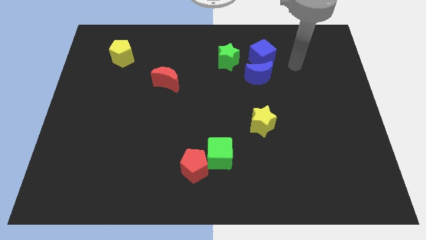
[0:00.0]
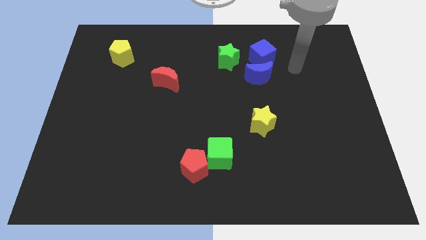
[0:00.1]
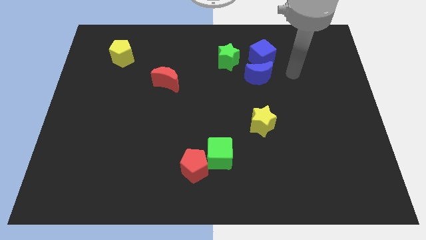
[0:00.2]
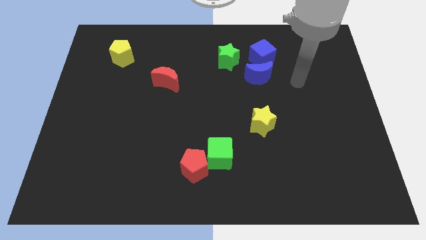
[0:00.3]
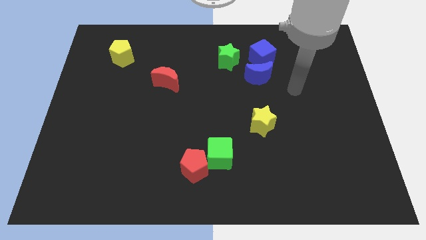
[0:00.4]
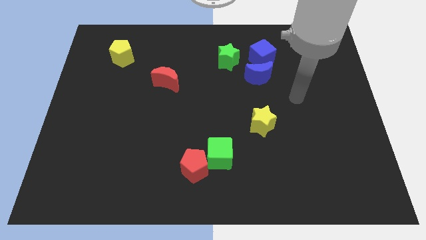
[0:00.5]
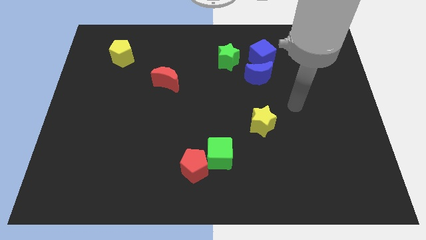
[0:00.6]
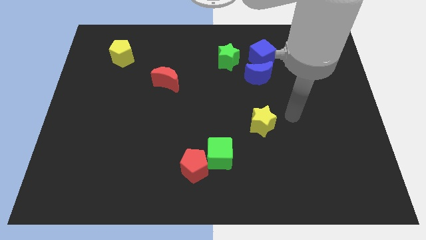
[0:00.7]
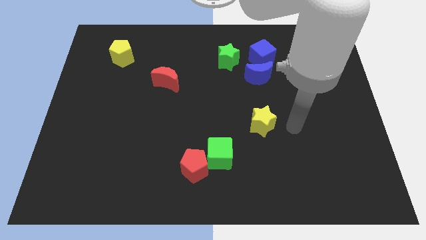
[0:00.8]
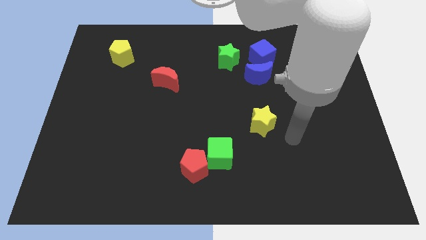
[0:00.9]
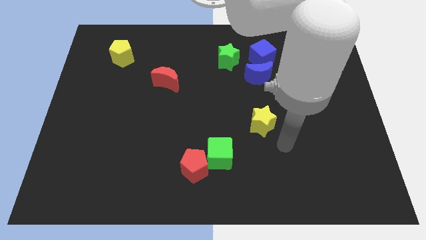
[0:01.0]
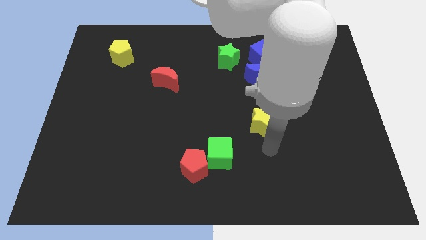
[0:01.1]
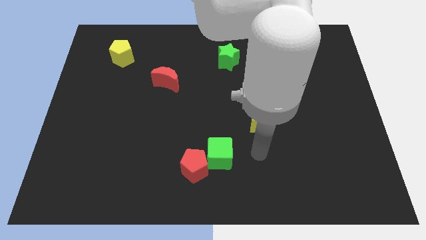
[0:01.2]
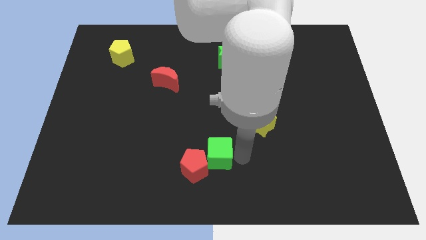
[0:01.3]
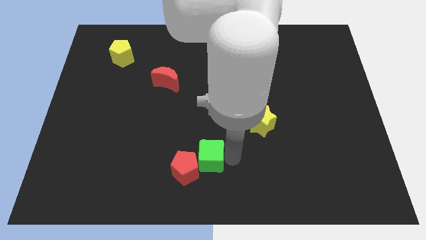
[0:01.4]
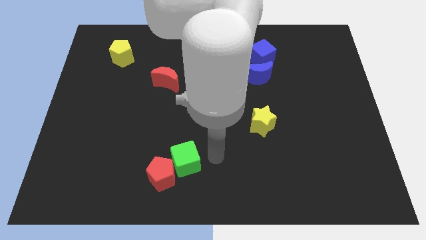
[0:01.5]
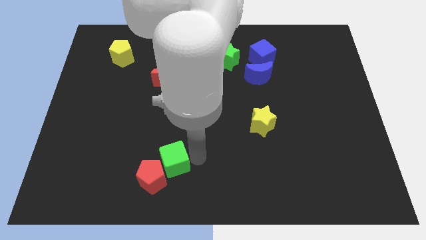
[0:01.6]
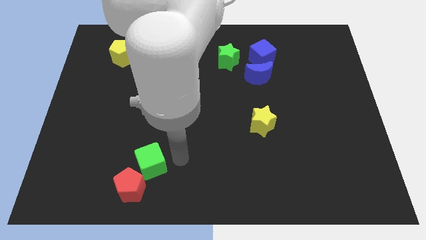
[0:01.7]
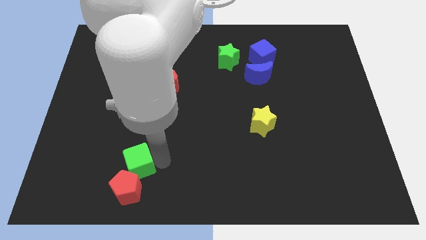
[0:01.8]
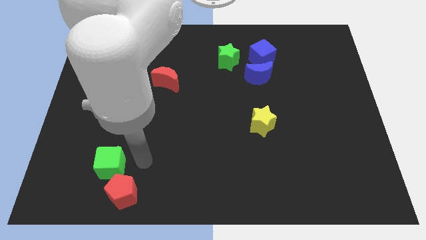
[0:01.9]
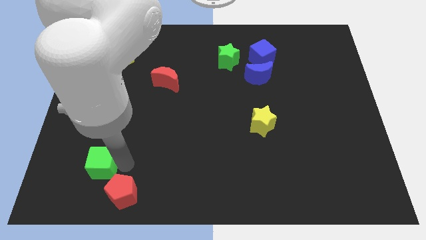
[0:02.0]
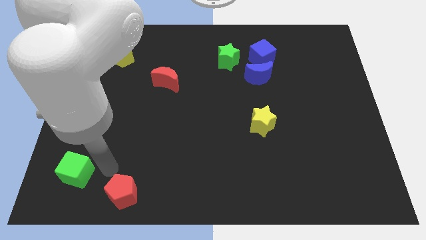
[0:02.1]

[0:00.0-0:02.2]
pull the red pentagon apart from the green cube

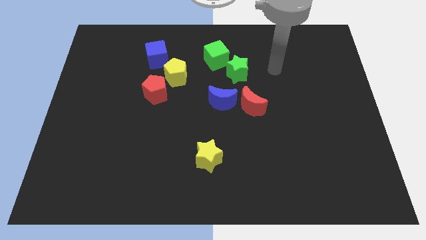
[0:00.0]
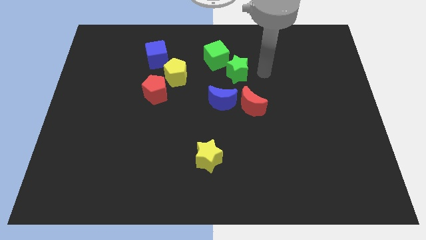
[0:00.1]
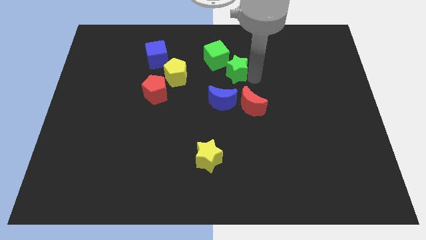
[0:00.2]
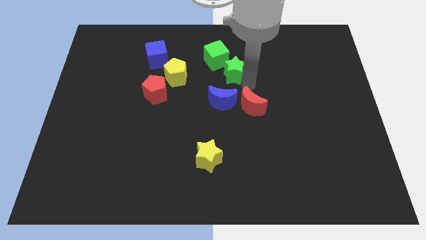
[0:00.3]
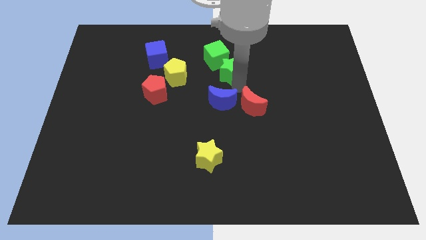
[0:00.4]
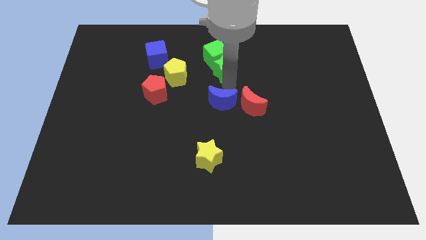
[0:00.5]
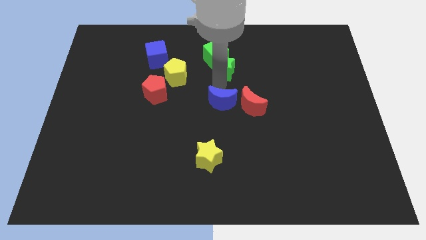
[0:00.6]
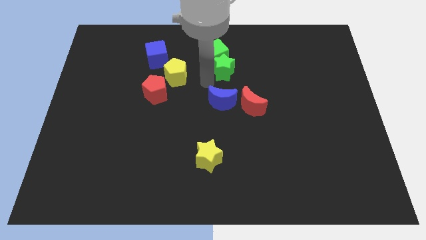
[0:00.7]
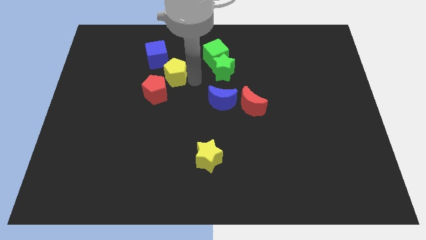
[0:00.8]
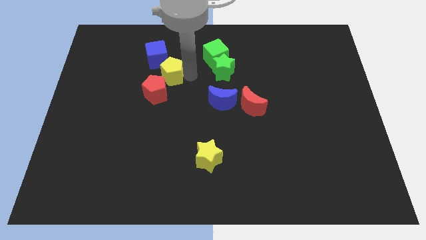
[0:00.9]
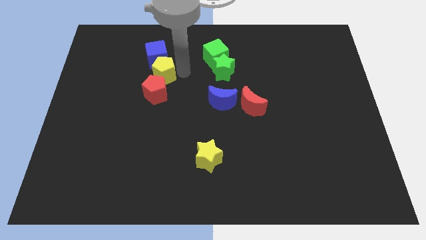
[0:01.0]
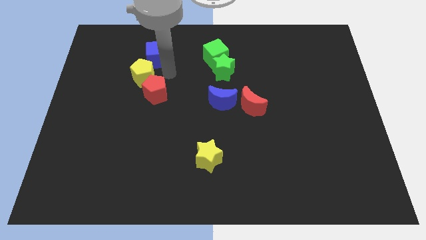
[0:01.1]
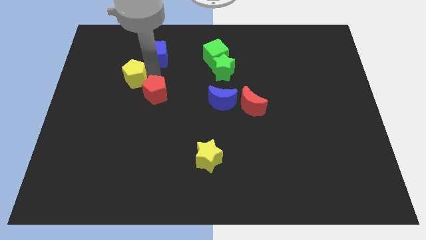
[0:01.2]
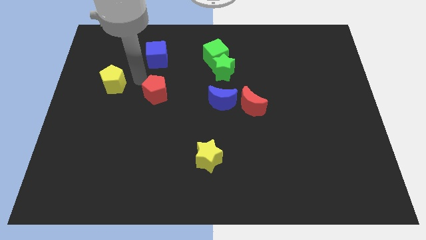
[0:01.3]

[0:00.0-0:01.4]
separate the red pentagon from the yellow pentagon

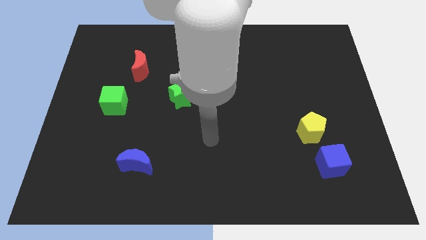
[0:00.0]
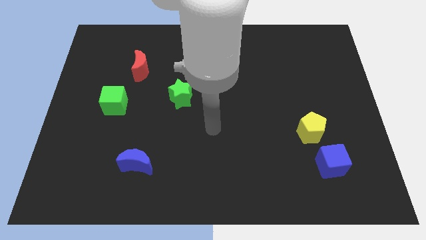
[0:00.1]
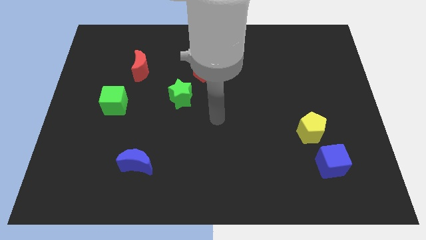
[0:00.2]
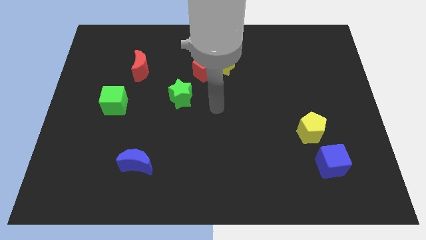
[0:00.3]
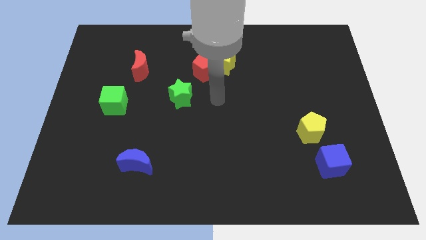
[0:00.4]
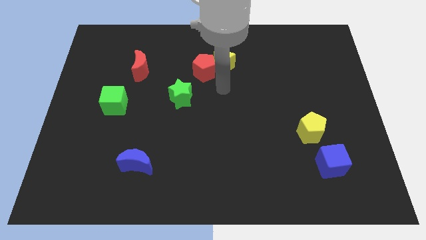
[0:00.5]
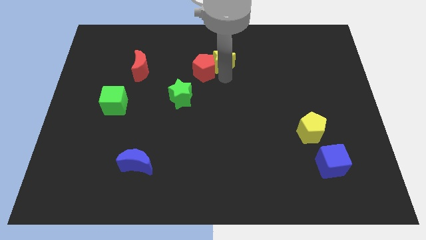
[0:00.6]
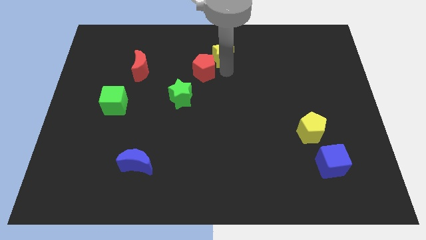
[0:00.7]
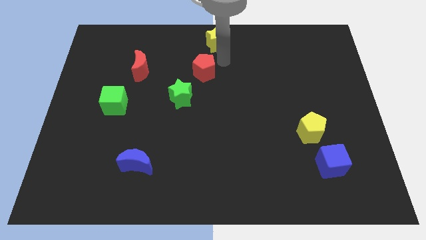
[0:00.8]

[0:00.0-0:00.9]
separate the red pentagon from the yellow star

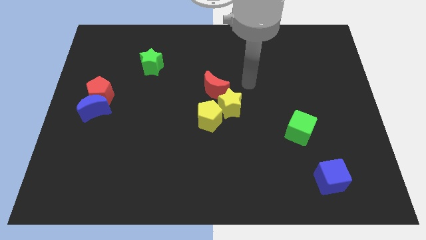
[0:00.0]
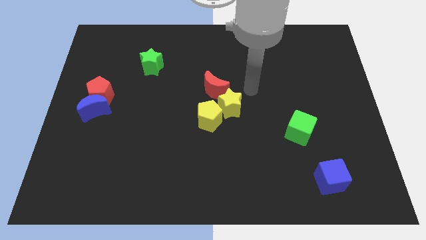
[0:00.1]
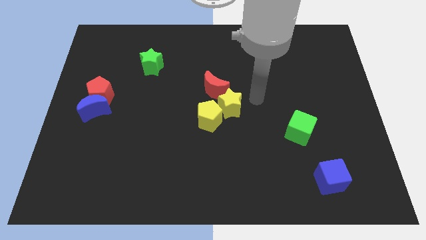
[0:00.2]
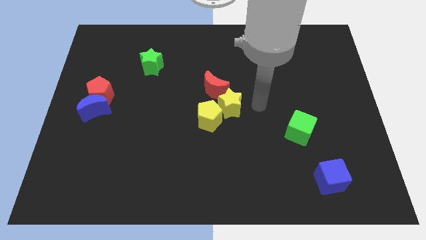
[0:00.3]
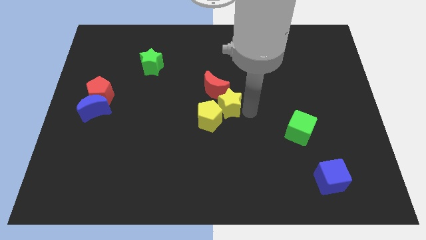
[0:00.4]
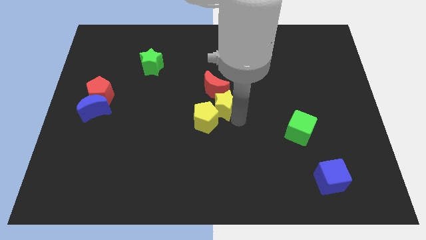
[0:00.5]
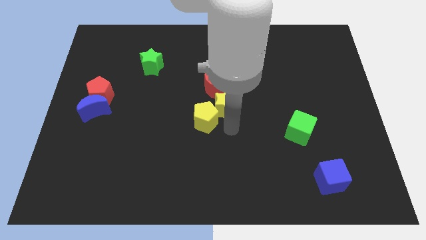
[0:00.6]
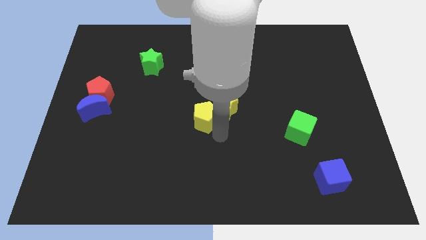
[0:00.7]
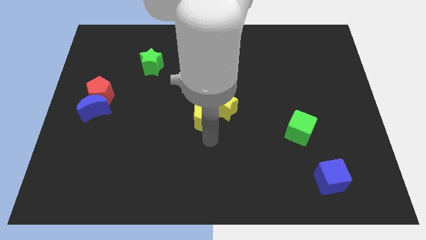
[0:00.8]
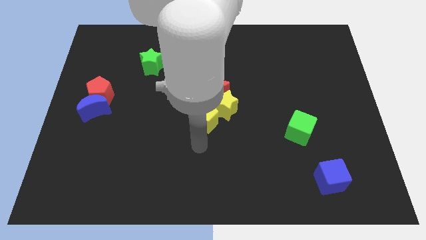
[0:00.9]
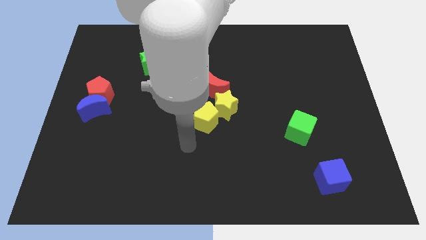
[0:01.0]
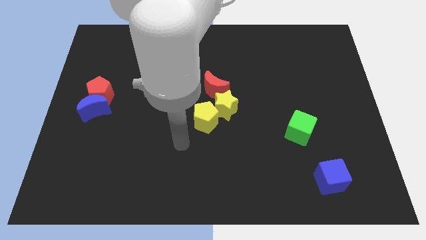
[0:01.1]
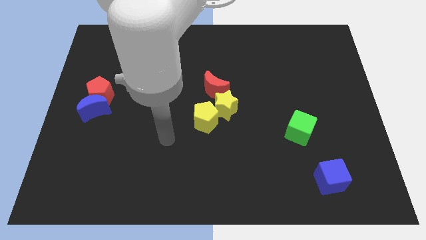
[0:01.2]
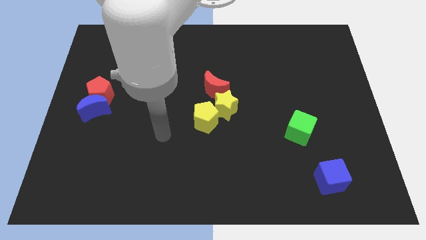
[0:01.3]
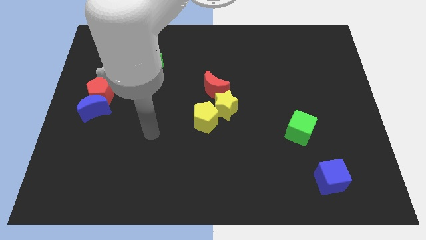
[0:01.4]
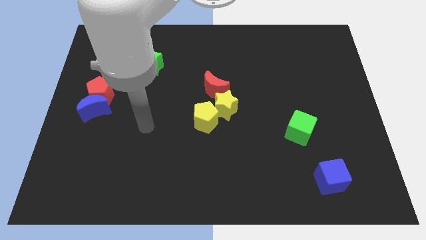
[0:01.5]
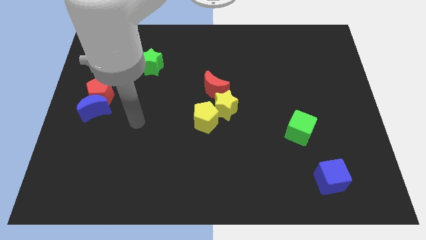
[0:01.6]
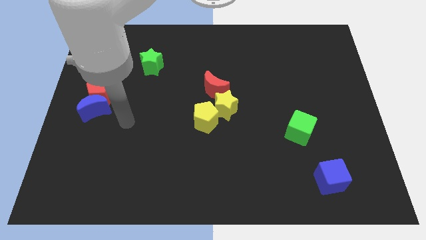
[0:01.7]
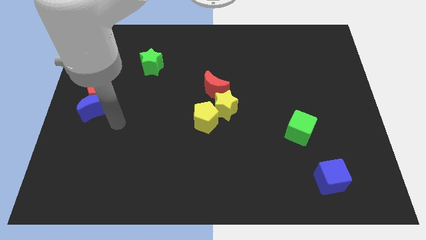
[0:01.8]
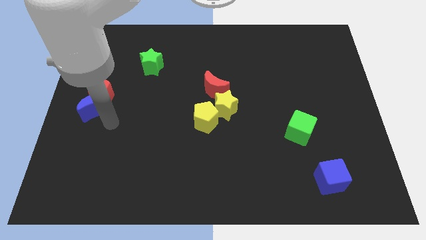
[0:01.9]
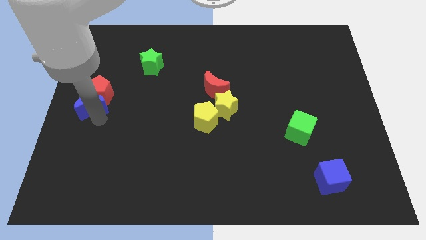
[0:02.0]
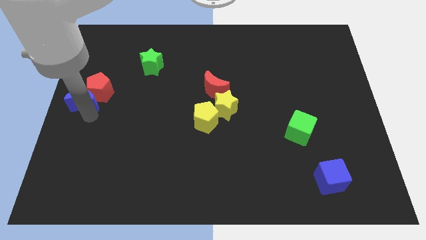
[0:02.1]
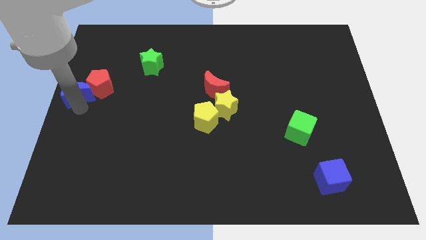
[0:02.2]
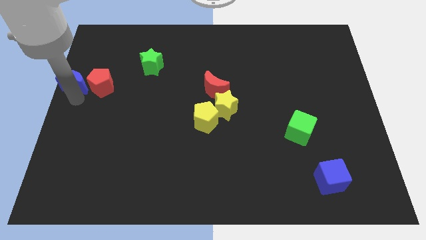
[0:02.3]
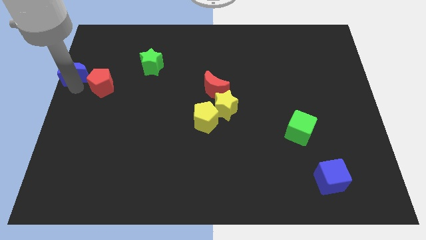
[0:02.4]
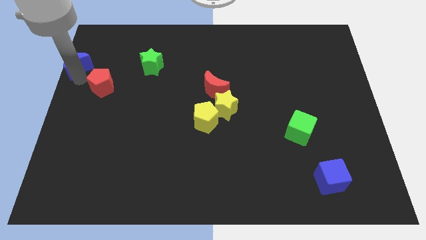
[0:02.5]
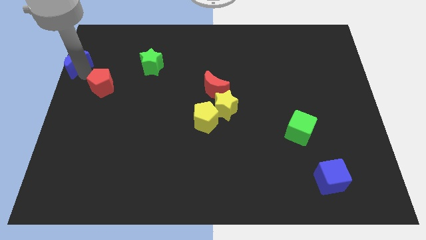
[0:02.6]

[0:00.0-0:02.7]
move the red pentagon away from the blue moon

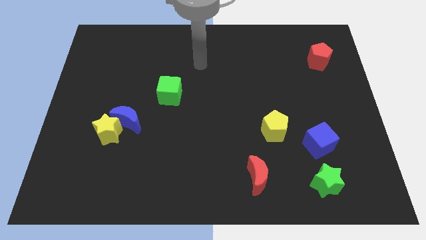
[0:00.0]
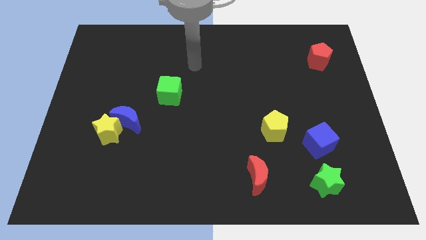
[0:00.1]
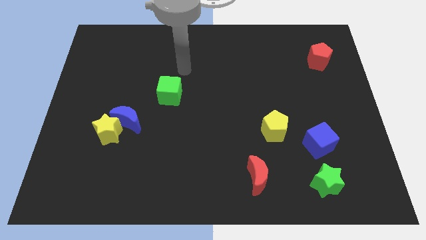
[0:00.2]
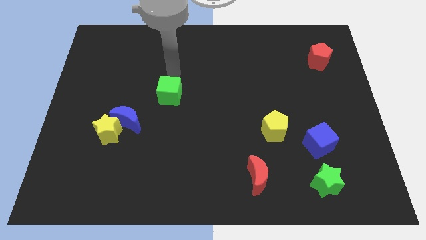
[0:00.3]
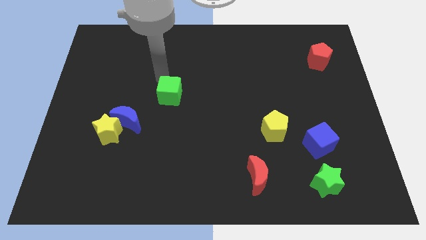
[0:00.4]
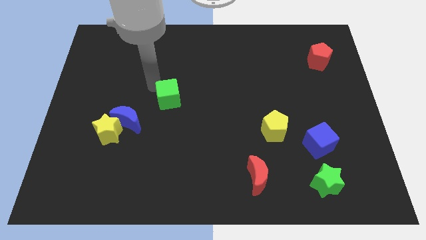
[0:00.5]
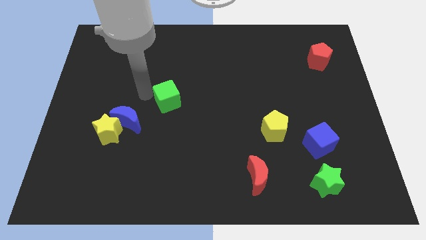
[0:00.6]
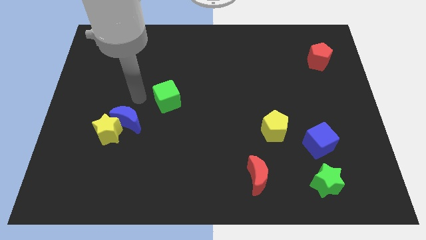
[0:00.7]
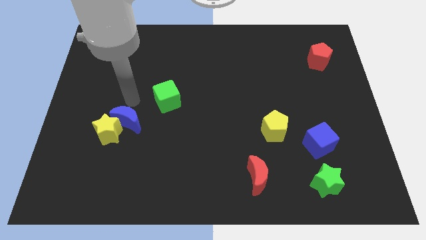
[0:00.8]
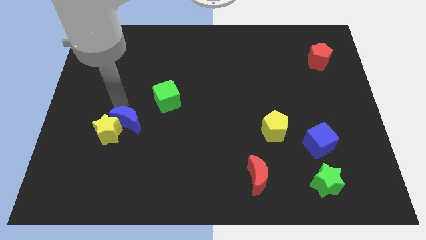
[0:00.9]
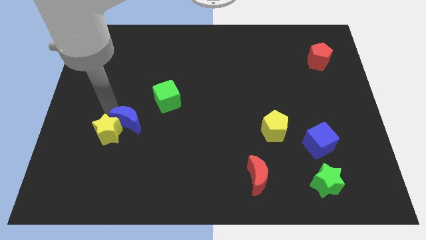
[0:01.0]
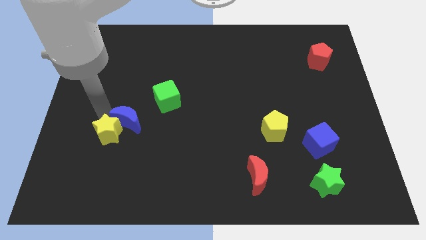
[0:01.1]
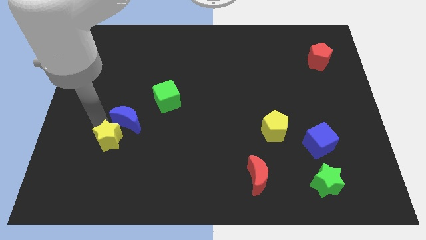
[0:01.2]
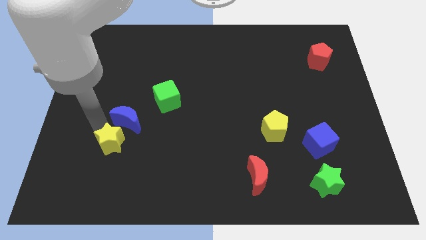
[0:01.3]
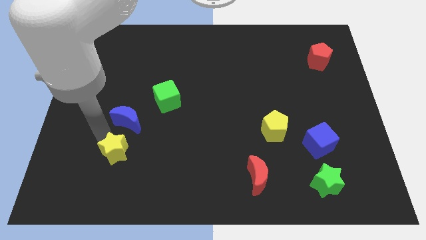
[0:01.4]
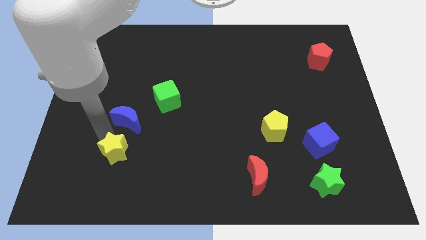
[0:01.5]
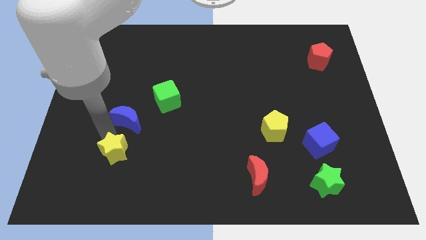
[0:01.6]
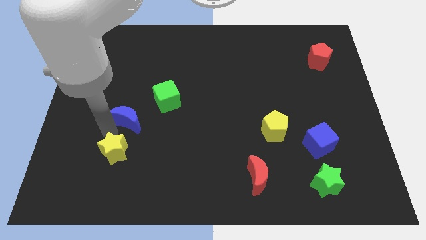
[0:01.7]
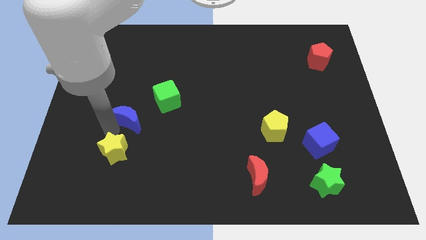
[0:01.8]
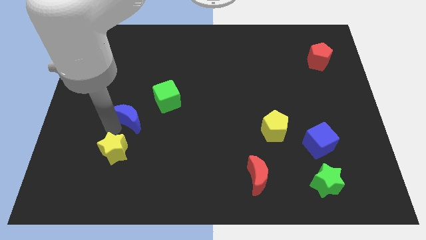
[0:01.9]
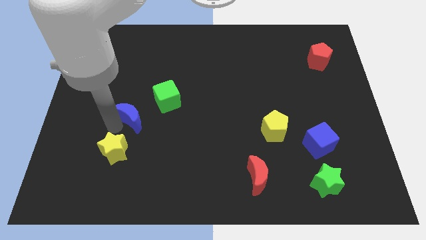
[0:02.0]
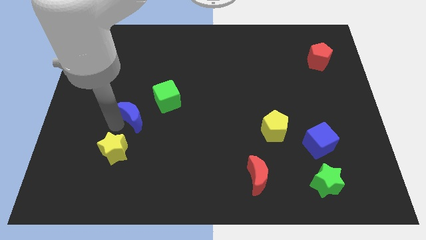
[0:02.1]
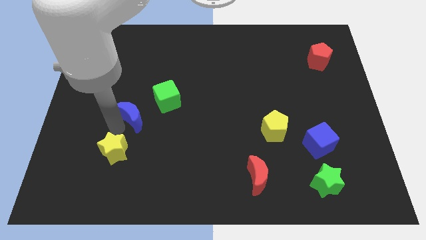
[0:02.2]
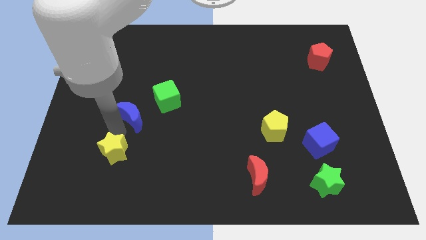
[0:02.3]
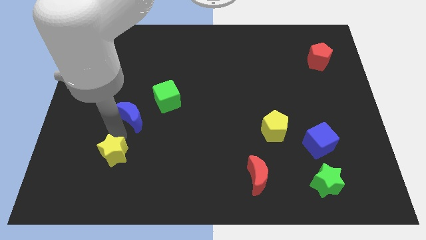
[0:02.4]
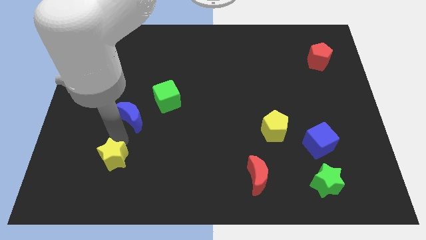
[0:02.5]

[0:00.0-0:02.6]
separate the blue moon from the yellow star
